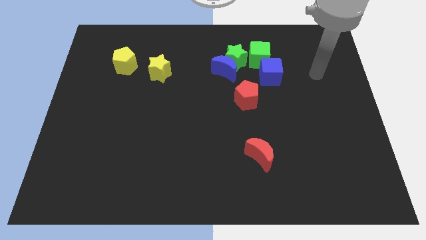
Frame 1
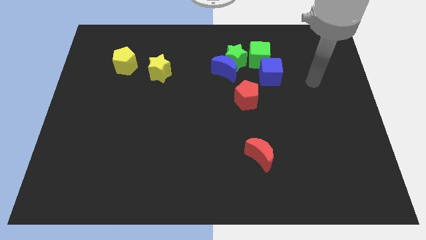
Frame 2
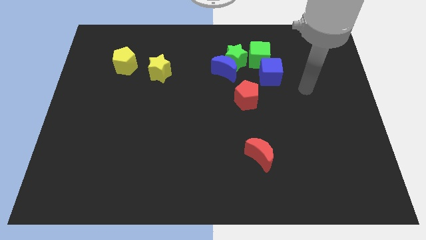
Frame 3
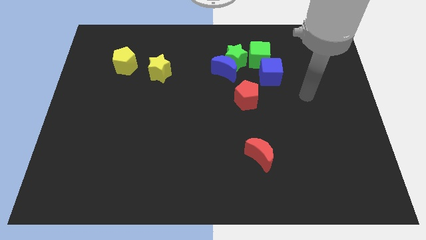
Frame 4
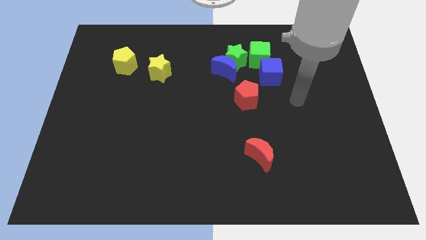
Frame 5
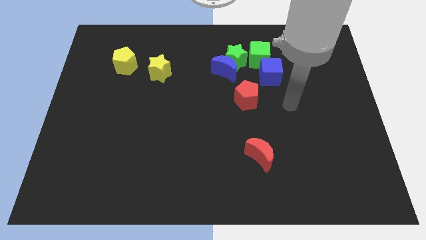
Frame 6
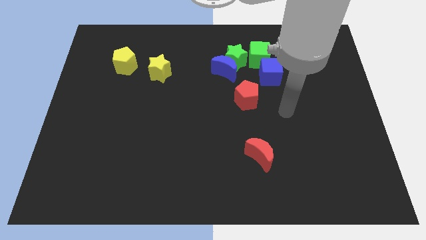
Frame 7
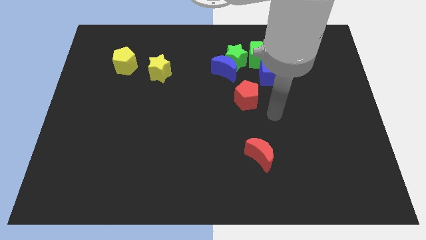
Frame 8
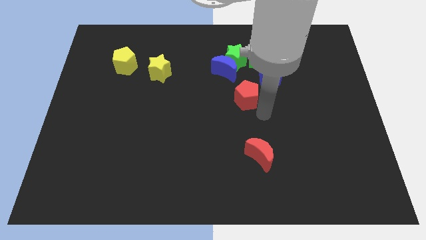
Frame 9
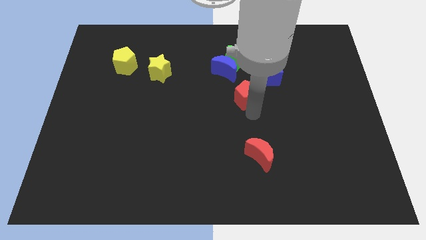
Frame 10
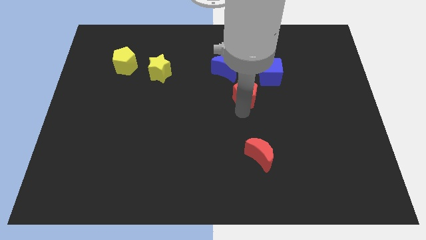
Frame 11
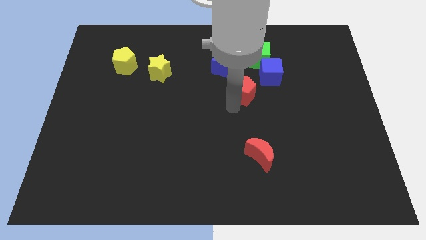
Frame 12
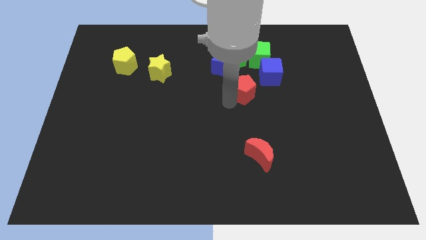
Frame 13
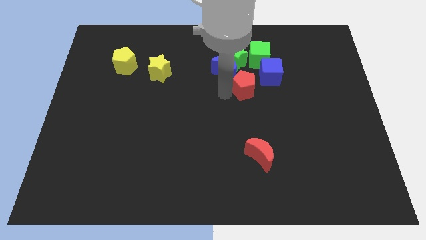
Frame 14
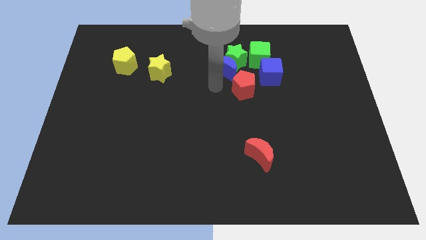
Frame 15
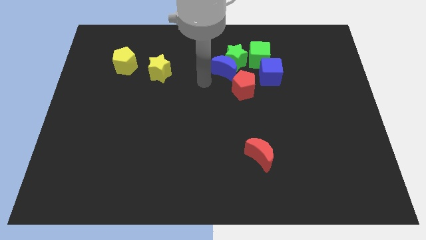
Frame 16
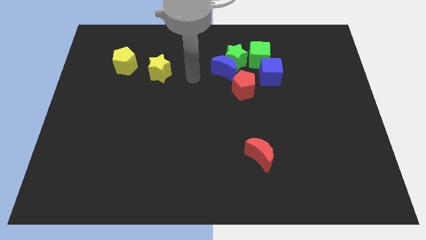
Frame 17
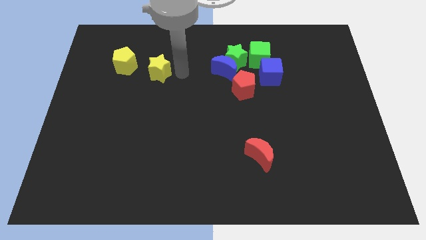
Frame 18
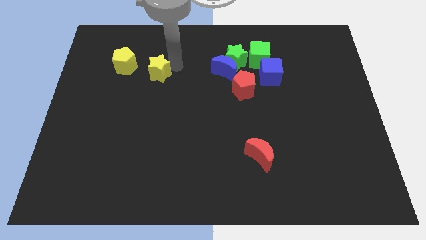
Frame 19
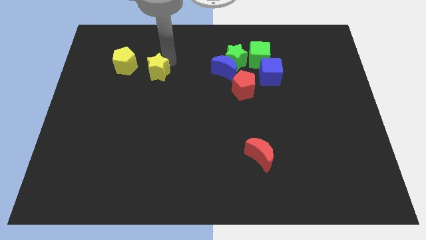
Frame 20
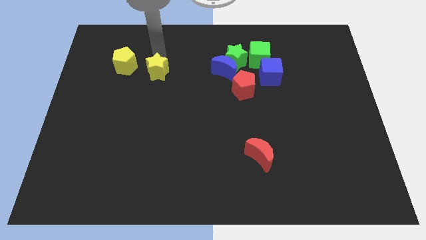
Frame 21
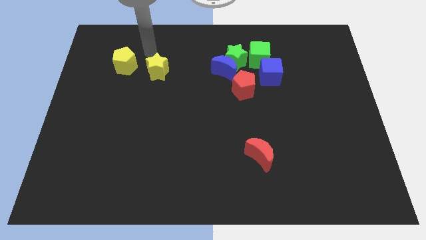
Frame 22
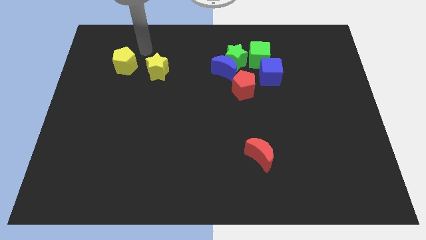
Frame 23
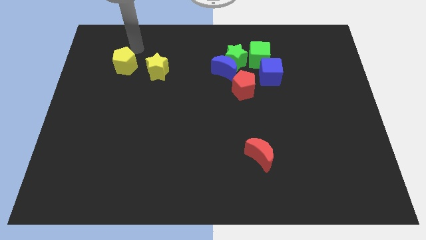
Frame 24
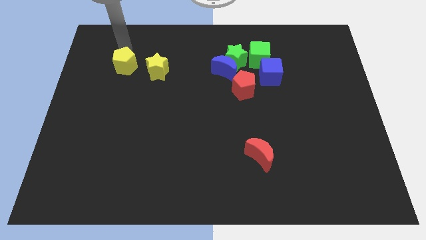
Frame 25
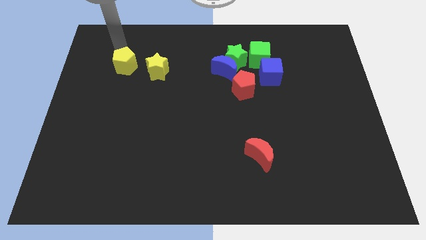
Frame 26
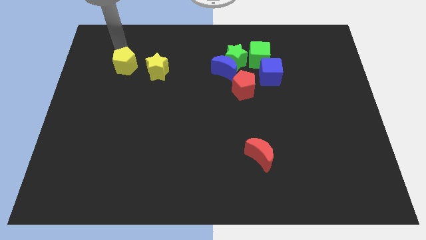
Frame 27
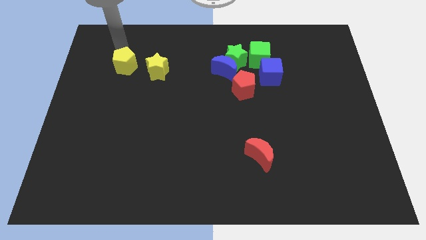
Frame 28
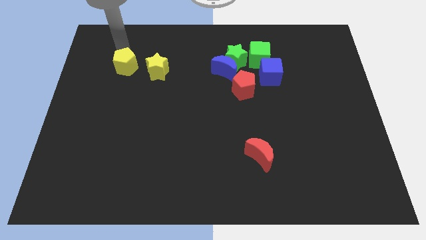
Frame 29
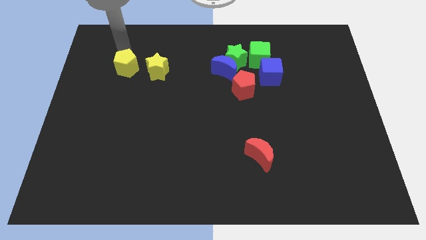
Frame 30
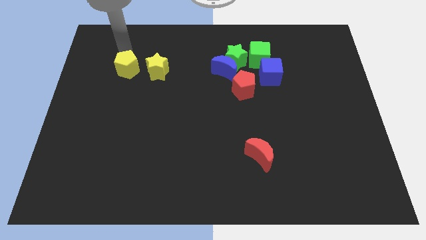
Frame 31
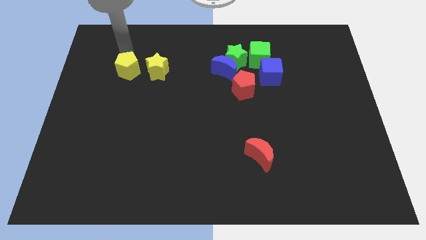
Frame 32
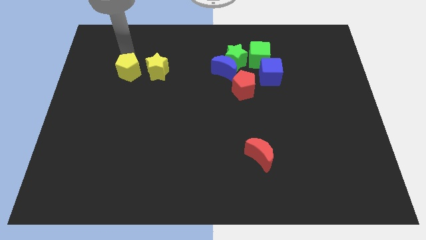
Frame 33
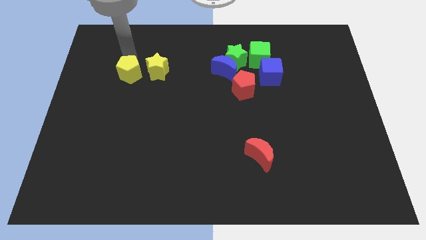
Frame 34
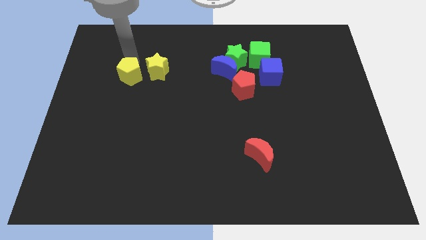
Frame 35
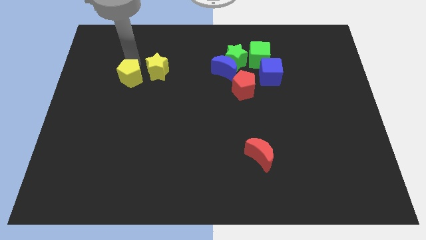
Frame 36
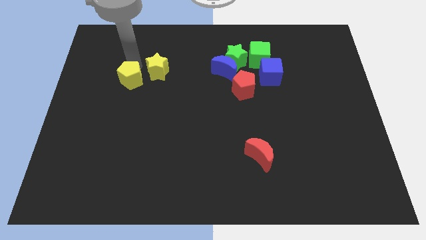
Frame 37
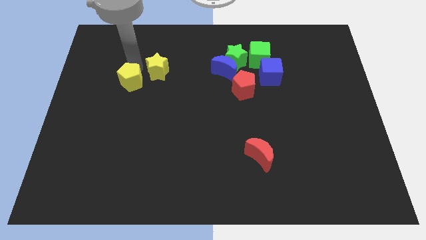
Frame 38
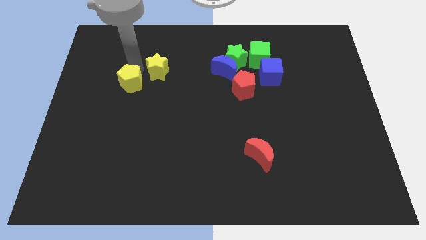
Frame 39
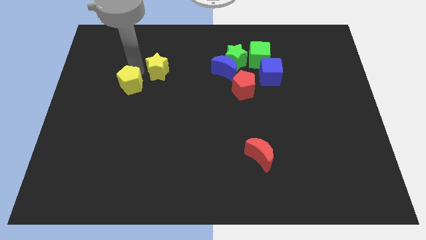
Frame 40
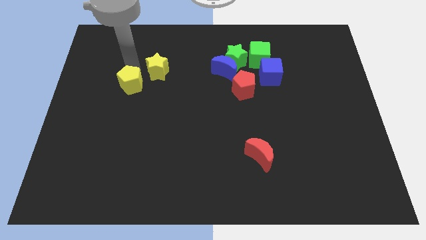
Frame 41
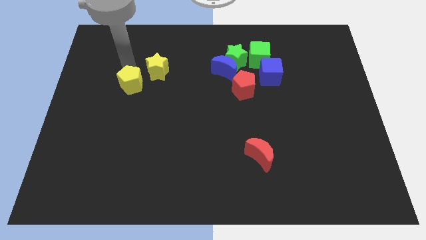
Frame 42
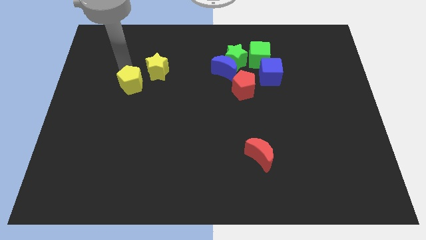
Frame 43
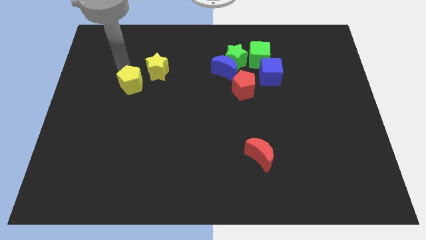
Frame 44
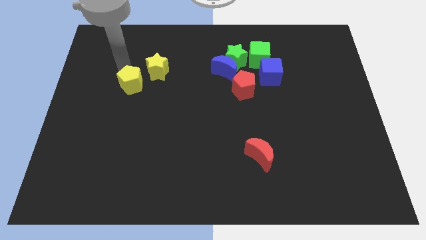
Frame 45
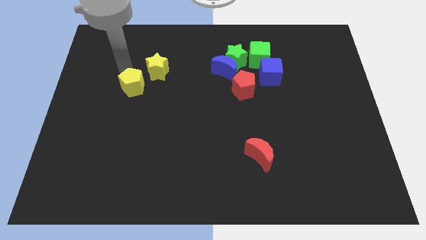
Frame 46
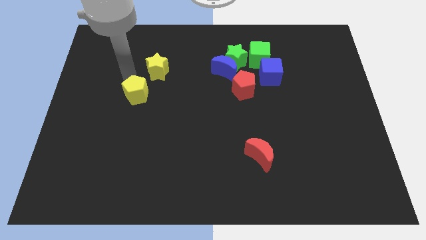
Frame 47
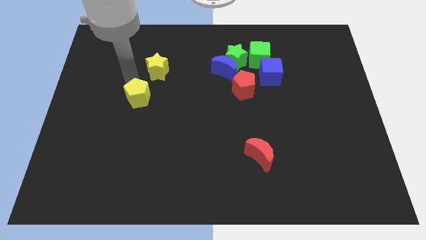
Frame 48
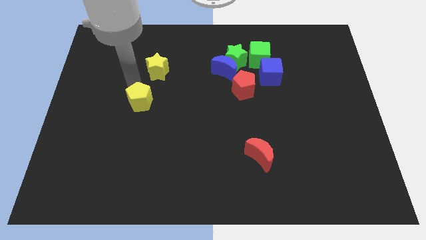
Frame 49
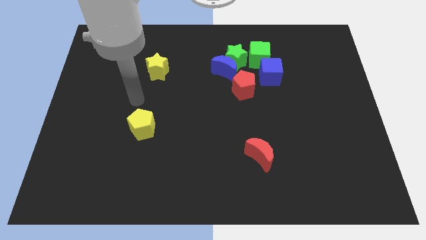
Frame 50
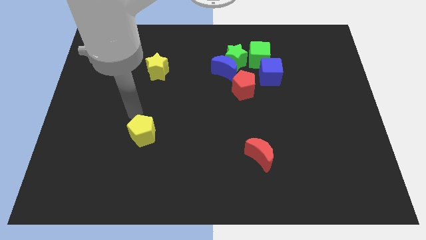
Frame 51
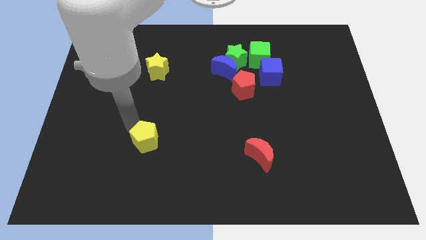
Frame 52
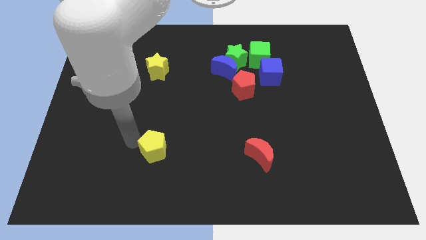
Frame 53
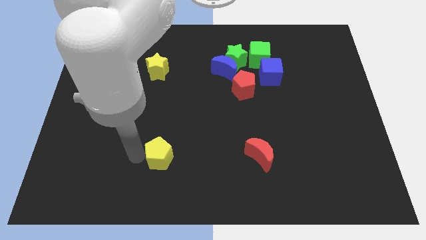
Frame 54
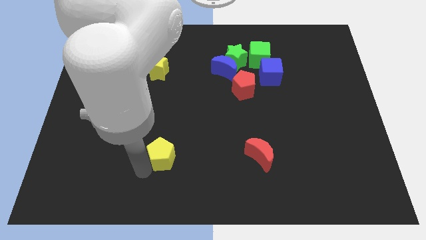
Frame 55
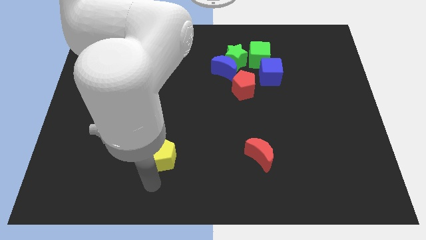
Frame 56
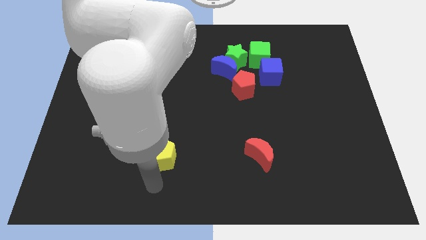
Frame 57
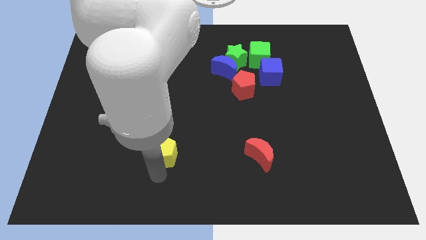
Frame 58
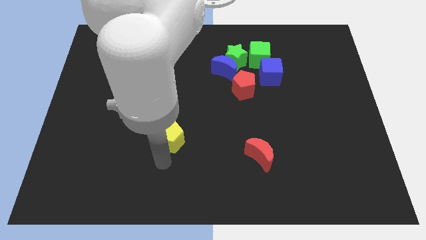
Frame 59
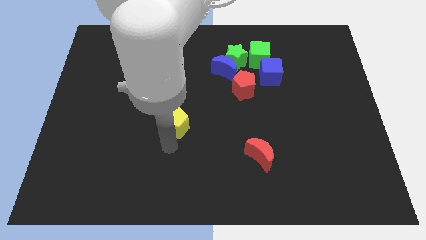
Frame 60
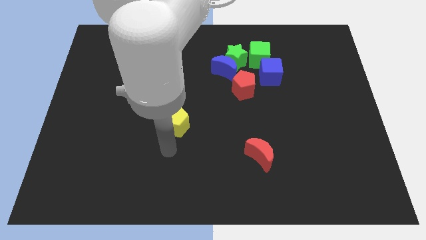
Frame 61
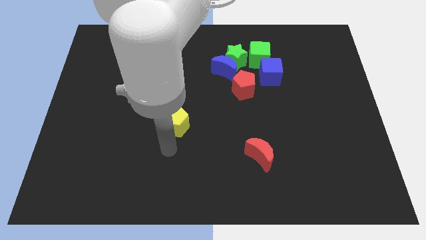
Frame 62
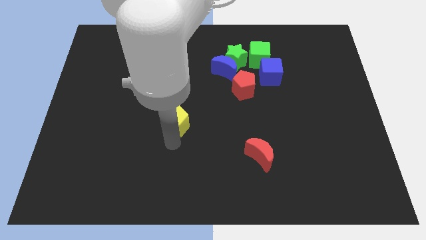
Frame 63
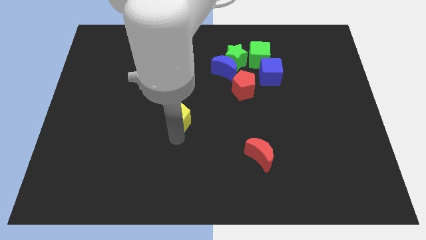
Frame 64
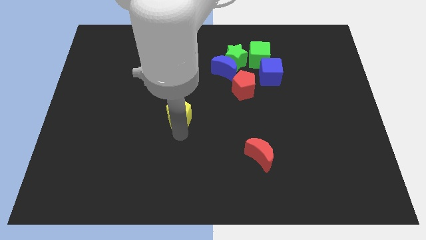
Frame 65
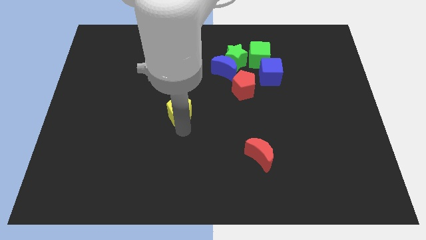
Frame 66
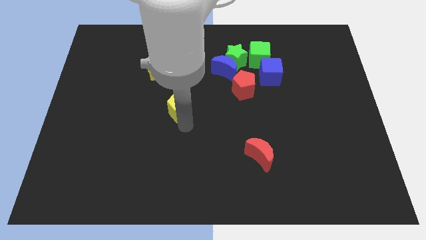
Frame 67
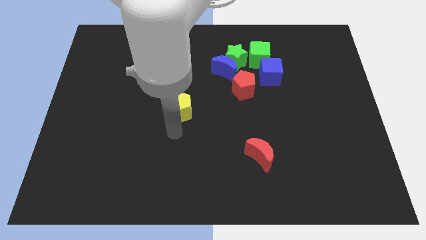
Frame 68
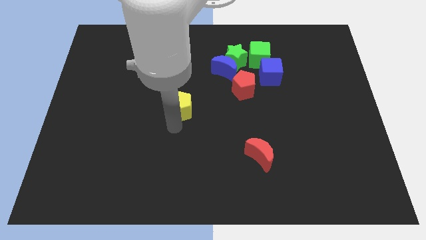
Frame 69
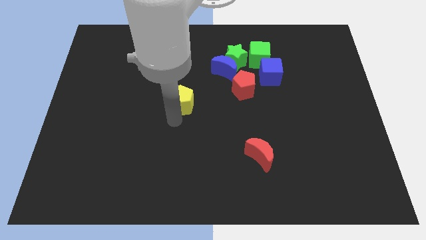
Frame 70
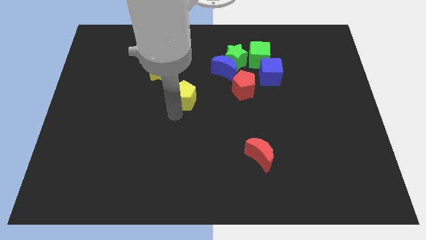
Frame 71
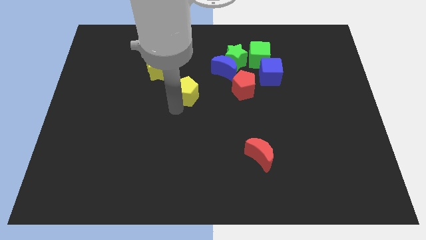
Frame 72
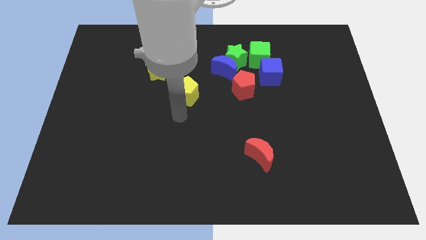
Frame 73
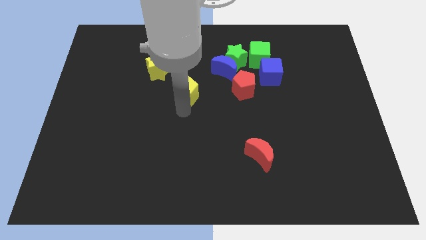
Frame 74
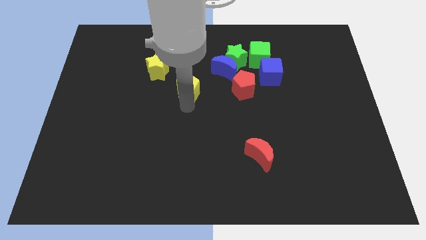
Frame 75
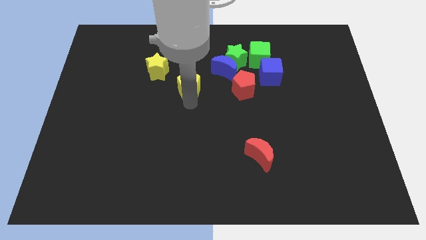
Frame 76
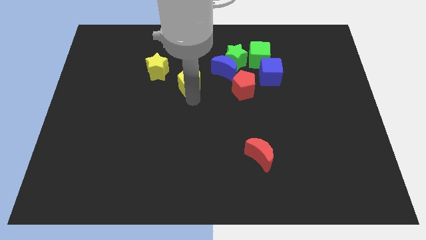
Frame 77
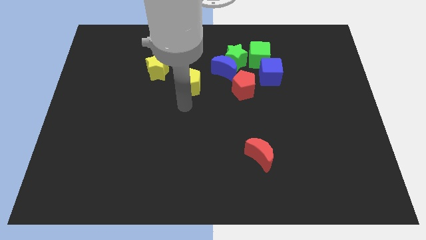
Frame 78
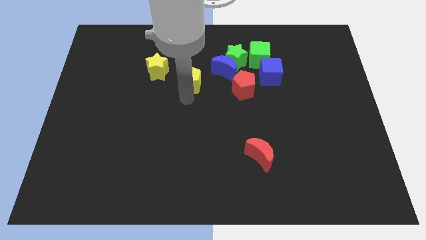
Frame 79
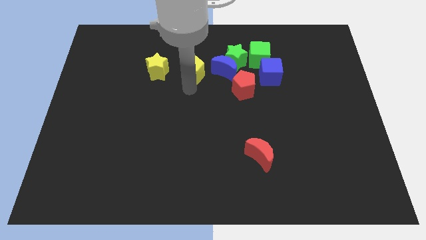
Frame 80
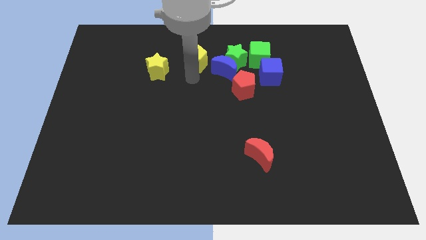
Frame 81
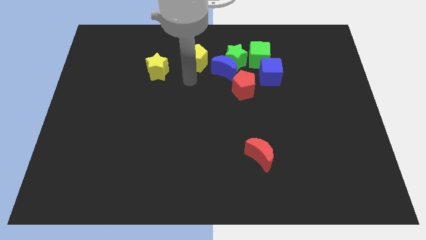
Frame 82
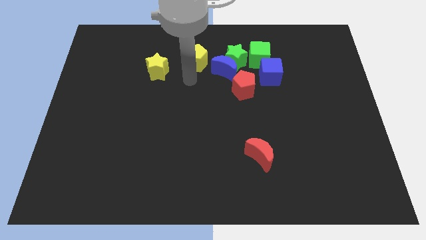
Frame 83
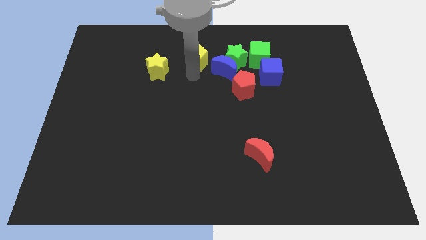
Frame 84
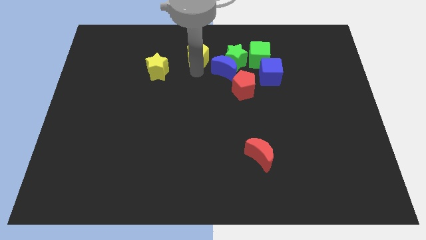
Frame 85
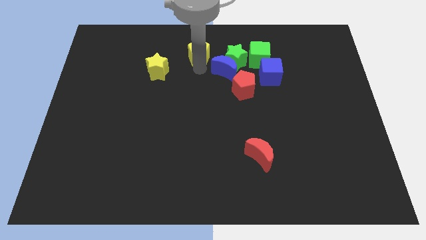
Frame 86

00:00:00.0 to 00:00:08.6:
push the yellow pentagon to the top
